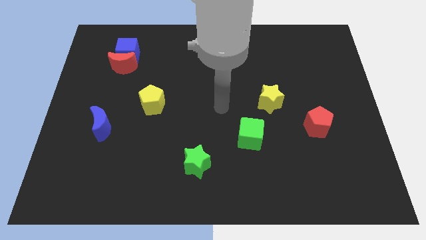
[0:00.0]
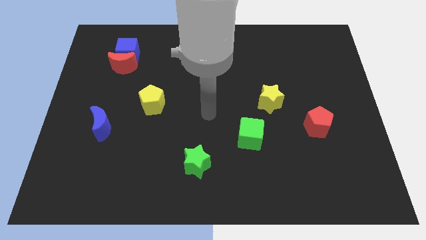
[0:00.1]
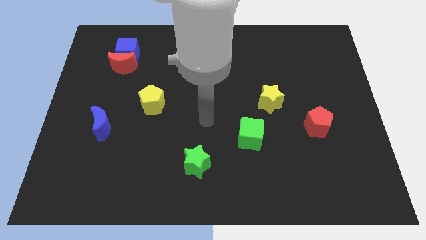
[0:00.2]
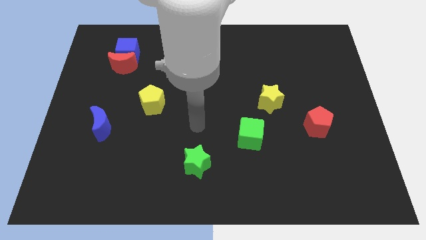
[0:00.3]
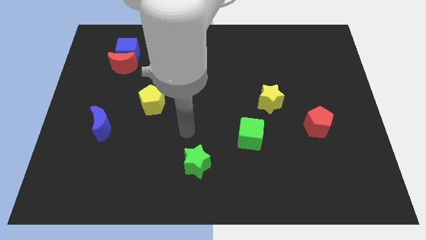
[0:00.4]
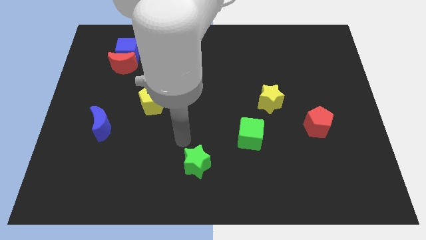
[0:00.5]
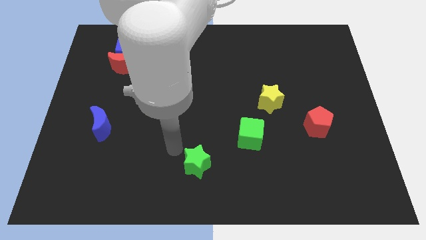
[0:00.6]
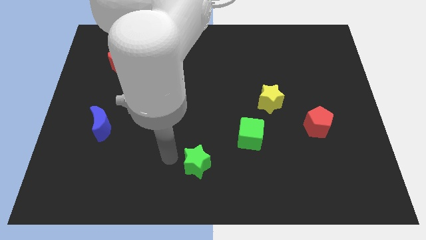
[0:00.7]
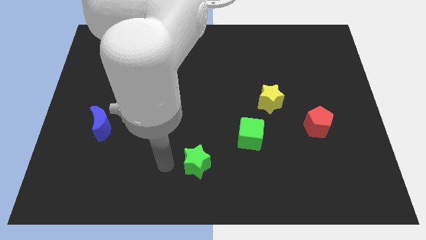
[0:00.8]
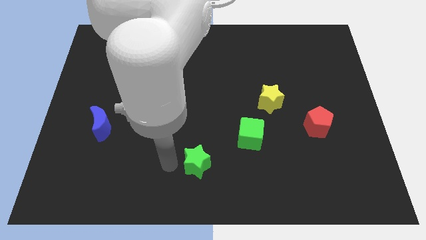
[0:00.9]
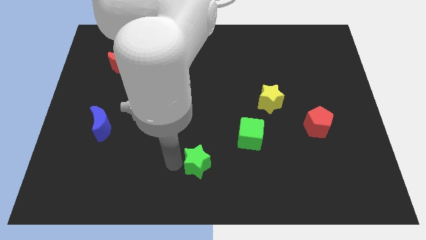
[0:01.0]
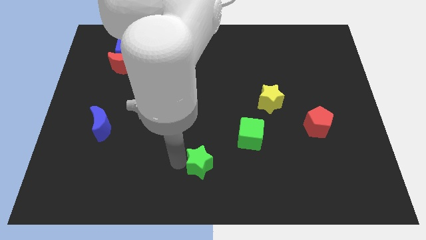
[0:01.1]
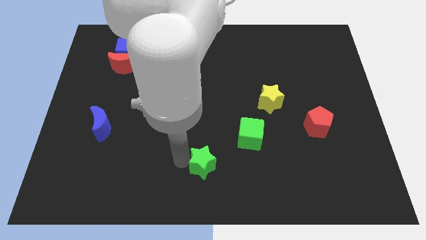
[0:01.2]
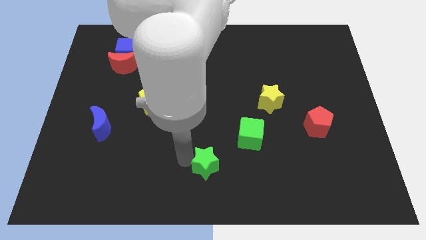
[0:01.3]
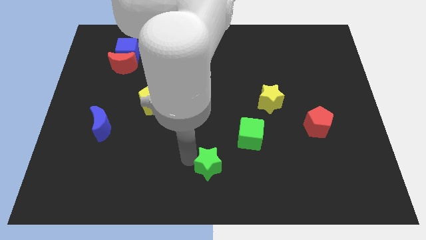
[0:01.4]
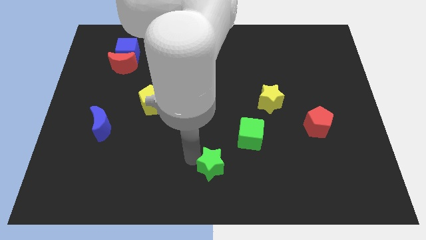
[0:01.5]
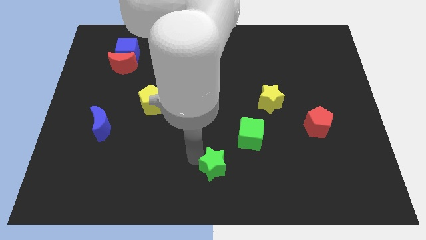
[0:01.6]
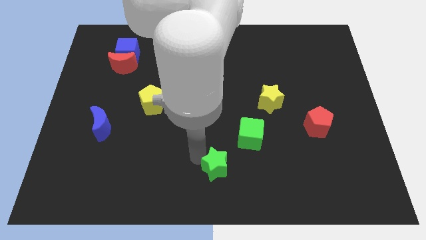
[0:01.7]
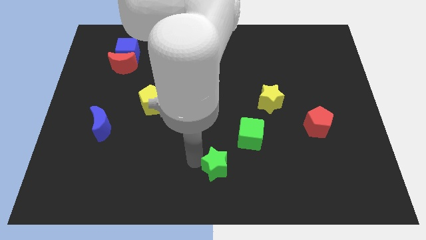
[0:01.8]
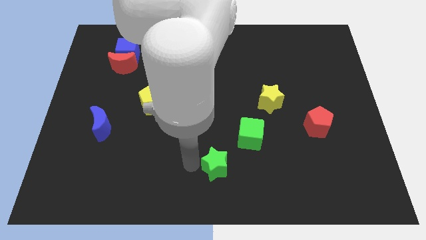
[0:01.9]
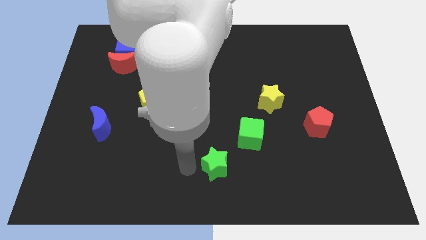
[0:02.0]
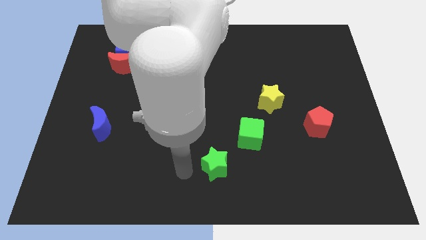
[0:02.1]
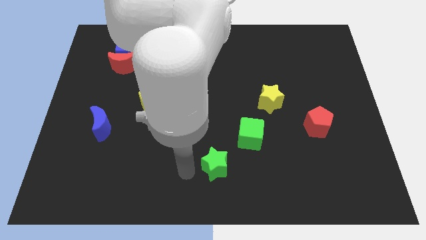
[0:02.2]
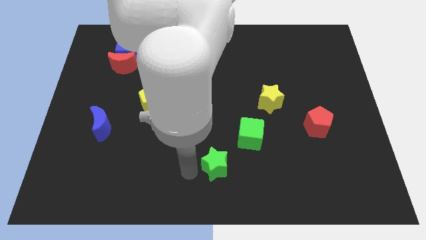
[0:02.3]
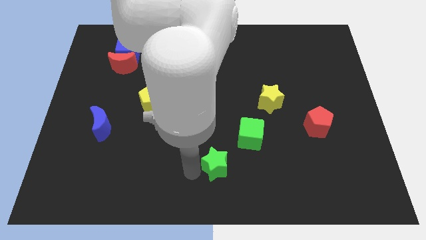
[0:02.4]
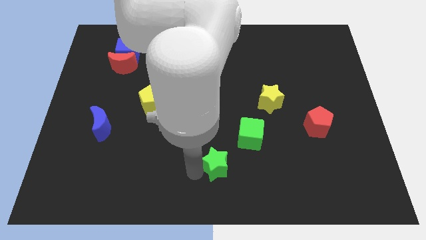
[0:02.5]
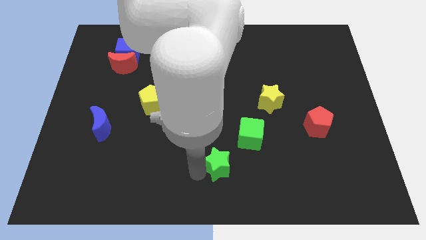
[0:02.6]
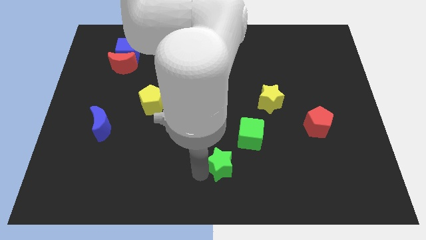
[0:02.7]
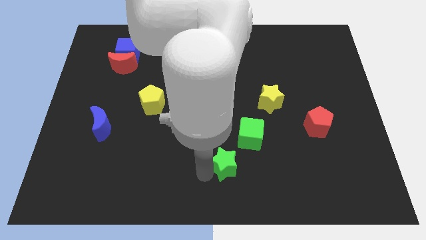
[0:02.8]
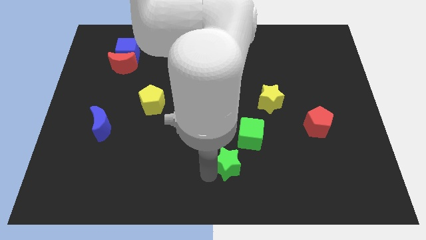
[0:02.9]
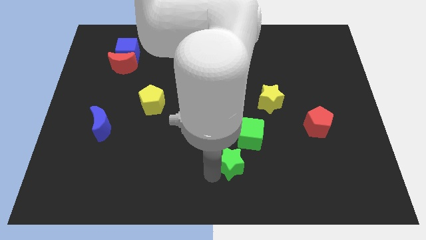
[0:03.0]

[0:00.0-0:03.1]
move the green star a little to the right

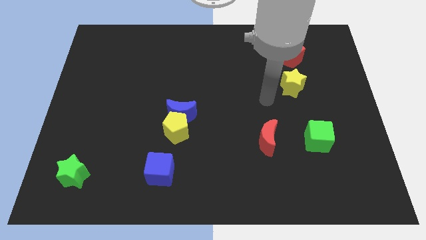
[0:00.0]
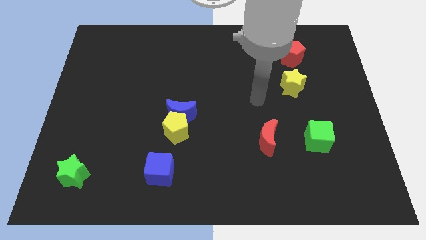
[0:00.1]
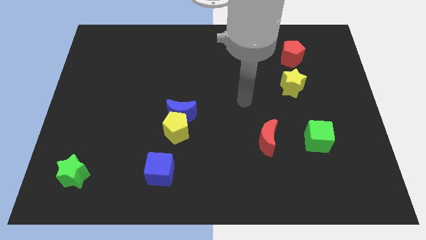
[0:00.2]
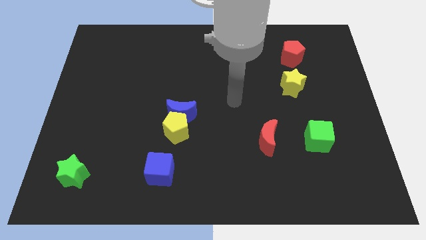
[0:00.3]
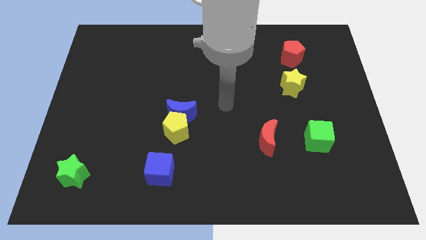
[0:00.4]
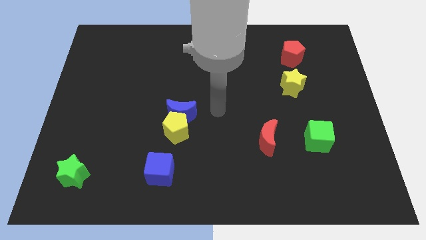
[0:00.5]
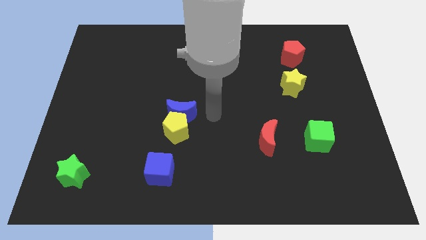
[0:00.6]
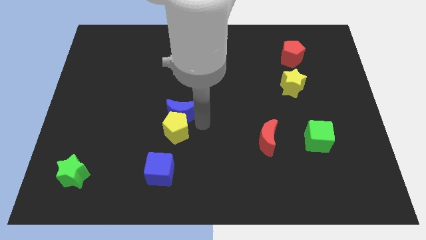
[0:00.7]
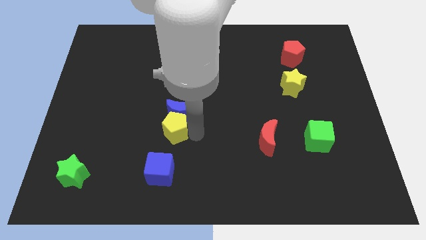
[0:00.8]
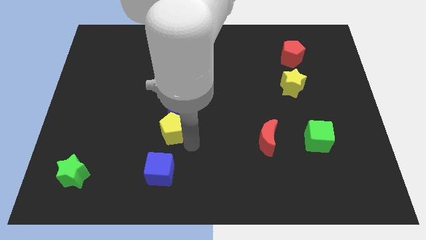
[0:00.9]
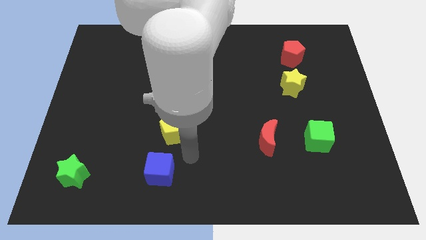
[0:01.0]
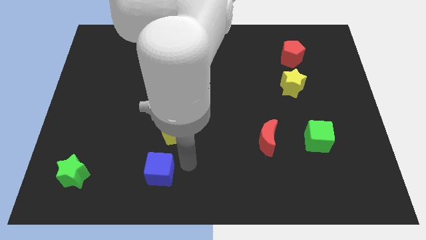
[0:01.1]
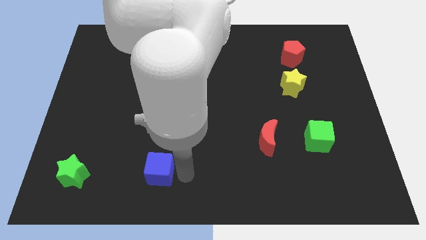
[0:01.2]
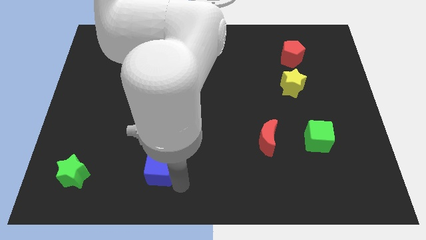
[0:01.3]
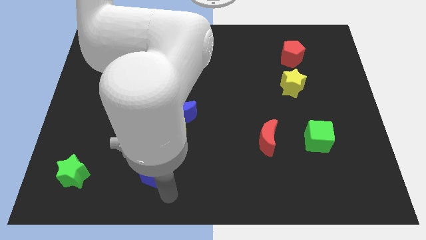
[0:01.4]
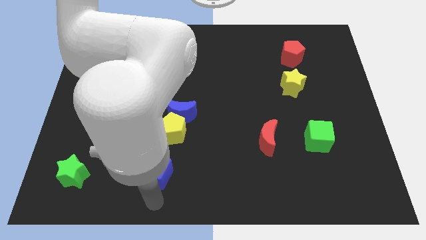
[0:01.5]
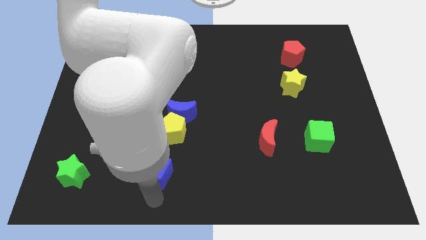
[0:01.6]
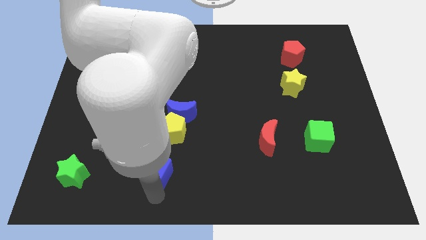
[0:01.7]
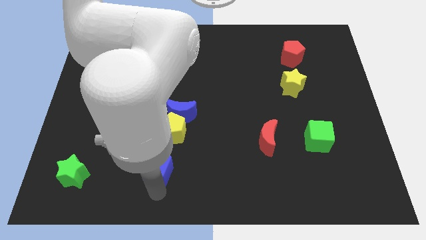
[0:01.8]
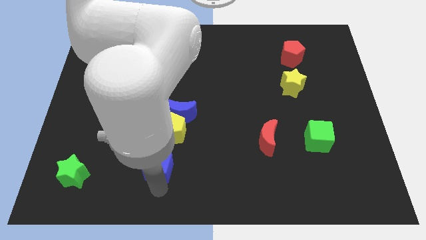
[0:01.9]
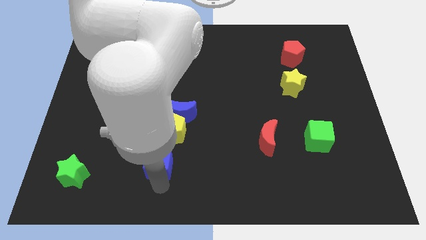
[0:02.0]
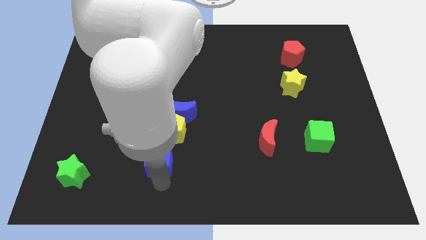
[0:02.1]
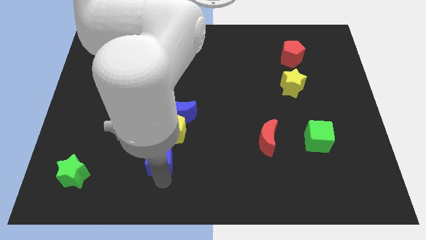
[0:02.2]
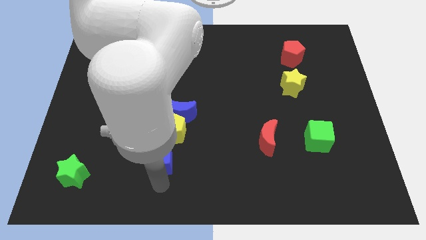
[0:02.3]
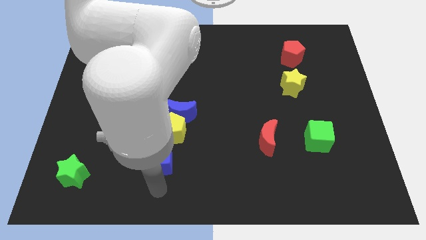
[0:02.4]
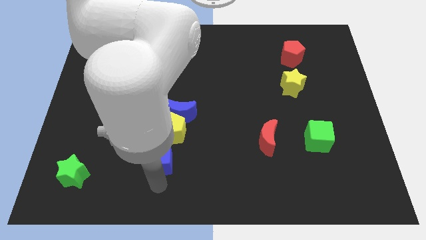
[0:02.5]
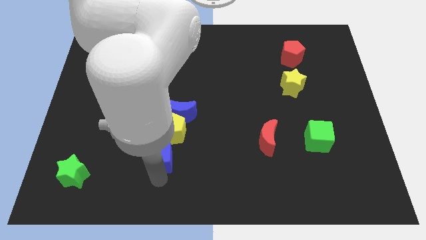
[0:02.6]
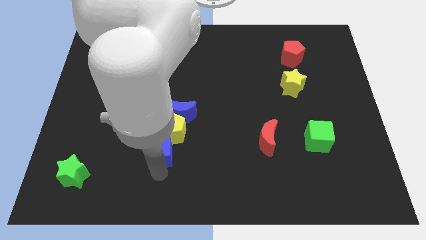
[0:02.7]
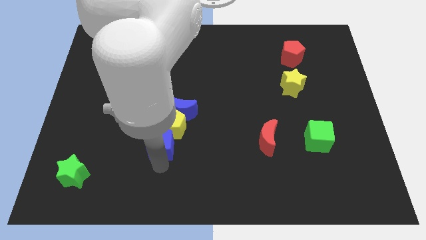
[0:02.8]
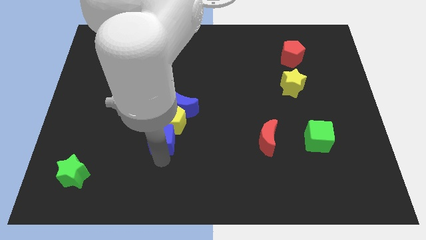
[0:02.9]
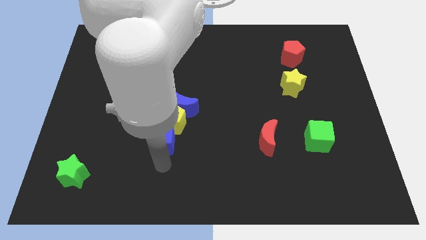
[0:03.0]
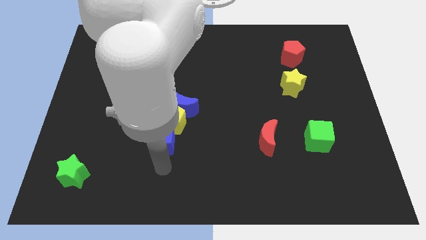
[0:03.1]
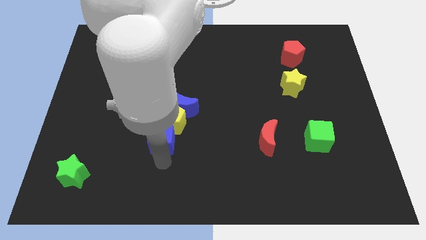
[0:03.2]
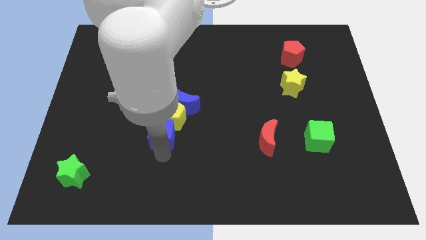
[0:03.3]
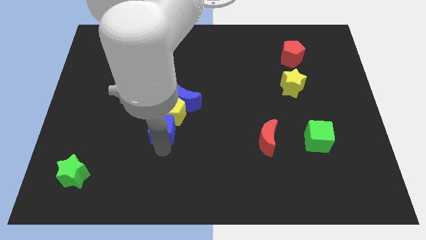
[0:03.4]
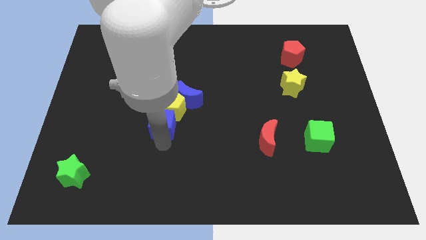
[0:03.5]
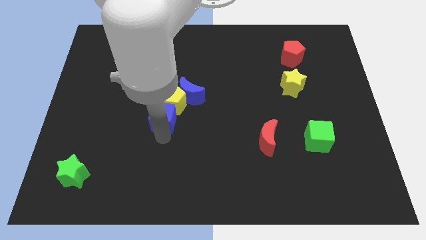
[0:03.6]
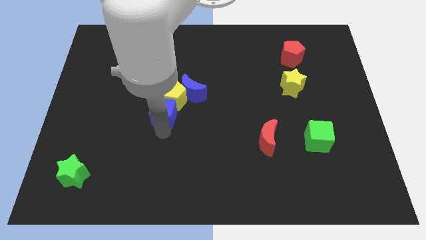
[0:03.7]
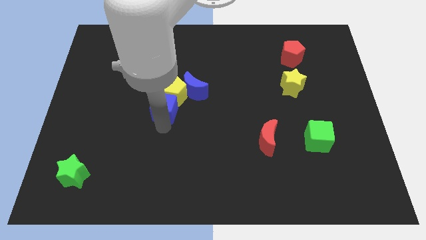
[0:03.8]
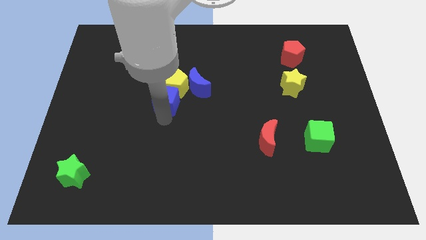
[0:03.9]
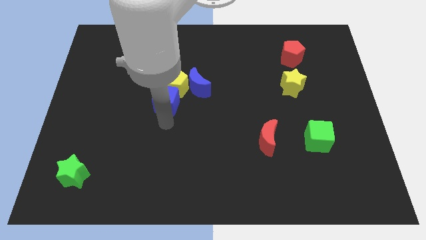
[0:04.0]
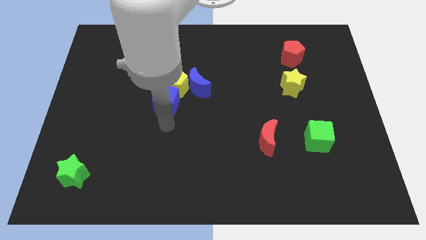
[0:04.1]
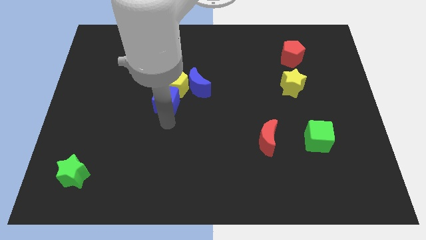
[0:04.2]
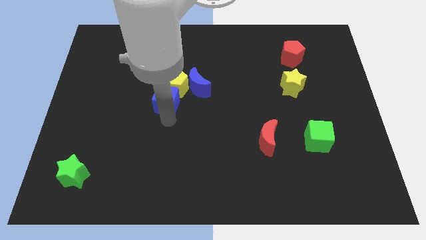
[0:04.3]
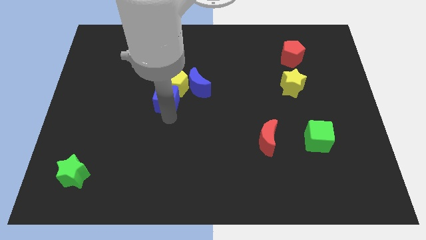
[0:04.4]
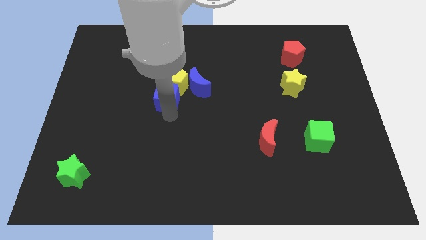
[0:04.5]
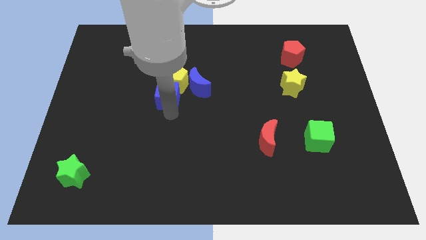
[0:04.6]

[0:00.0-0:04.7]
push the blue cube upwards

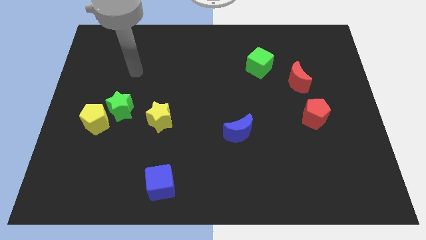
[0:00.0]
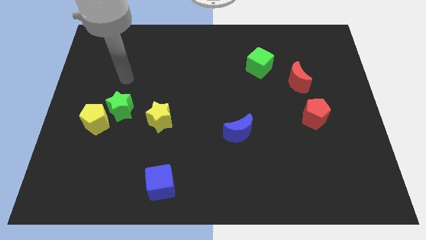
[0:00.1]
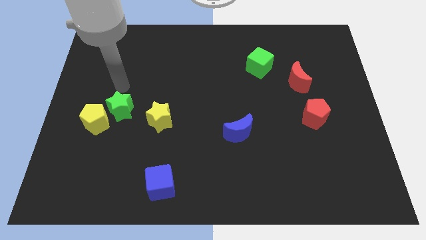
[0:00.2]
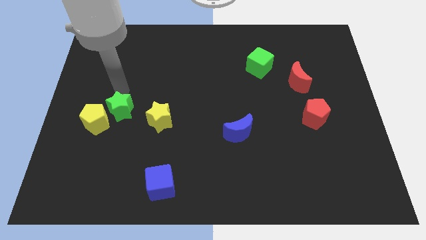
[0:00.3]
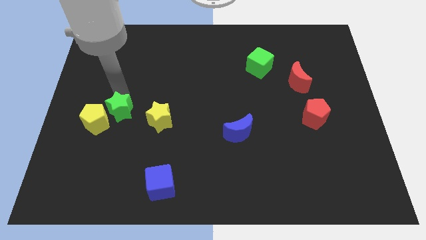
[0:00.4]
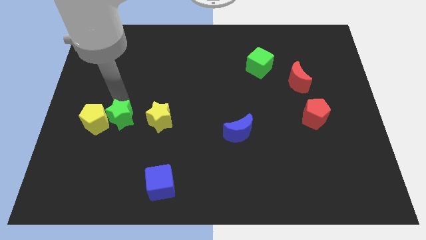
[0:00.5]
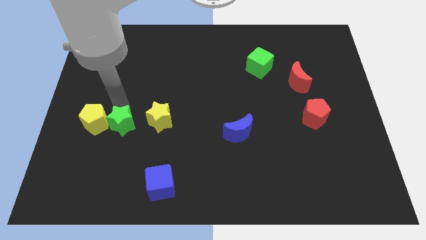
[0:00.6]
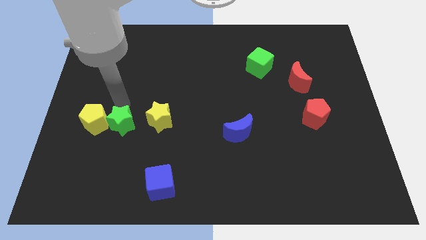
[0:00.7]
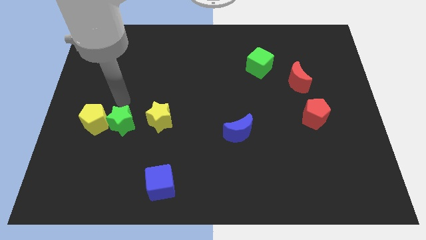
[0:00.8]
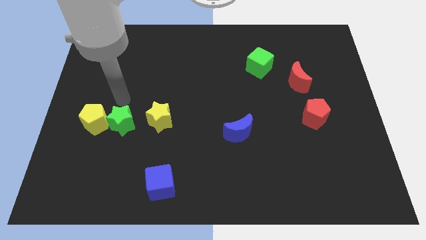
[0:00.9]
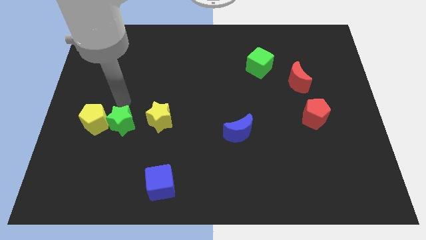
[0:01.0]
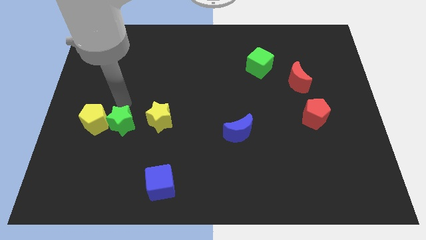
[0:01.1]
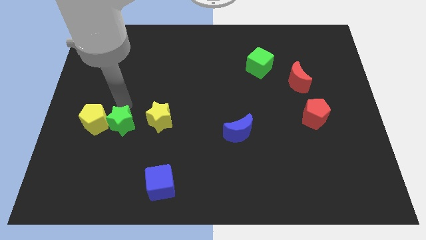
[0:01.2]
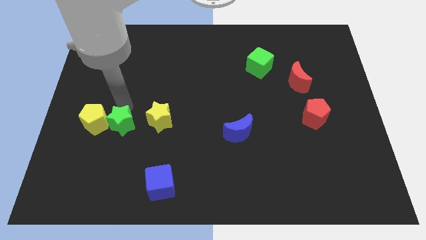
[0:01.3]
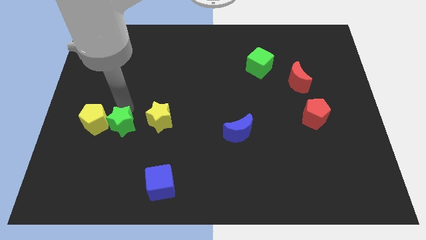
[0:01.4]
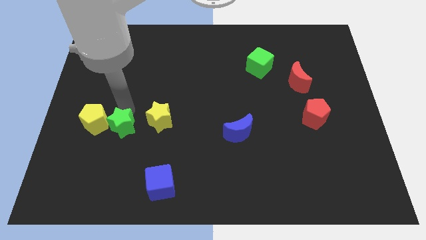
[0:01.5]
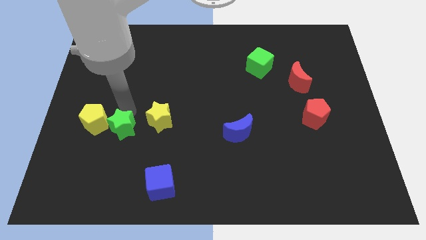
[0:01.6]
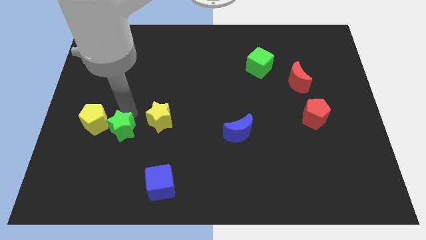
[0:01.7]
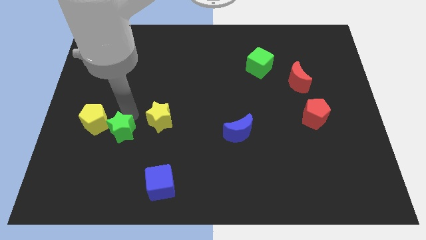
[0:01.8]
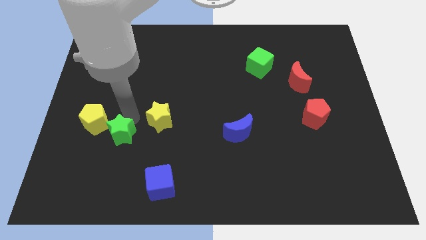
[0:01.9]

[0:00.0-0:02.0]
slightly slide the green star downwards
